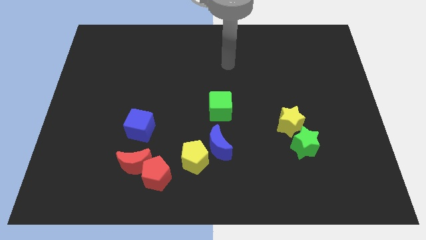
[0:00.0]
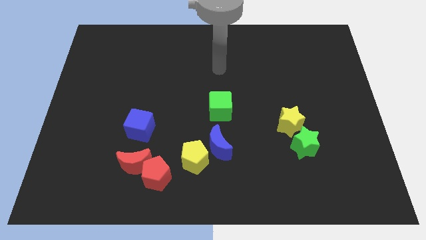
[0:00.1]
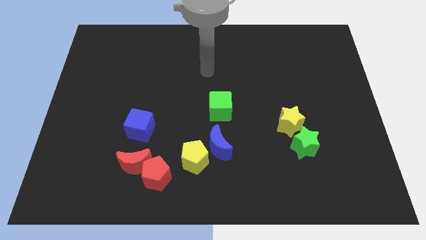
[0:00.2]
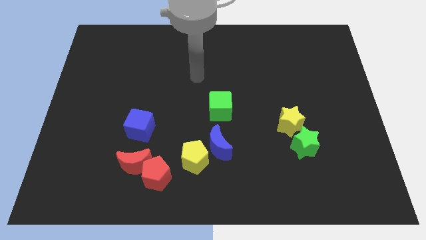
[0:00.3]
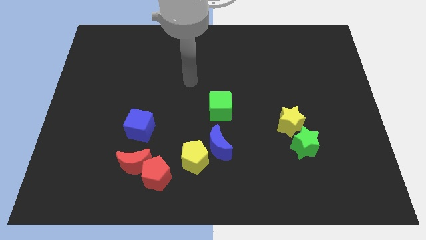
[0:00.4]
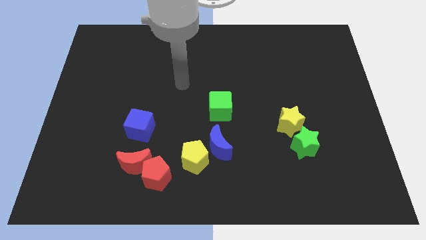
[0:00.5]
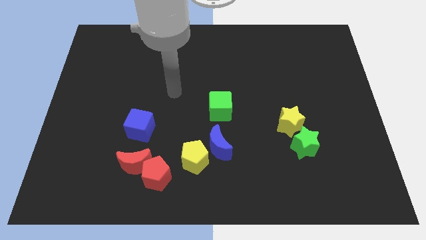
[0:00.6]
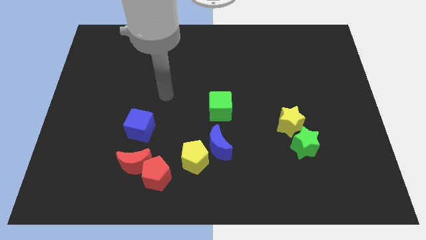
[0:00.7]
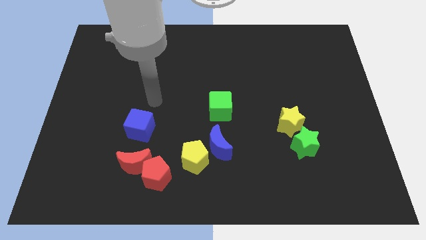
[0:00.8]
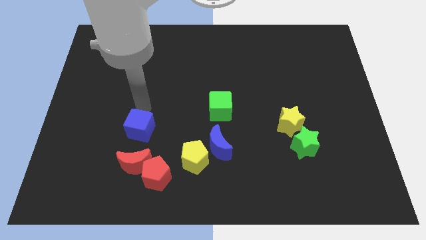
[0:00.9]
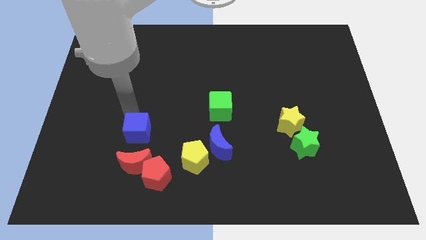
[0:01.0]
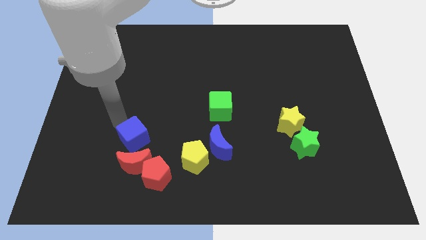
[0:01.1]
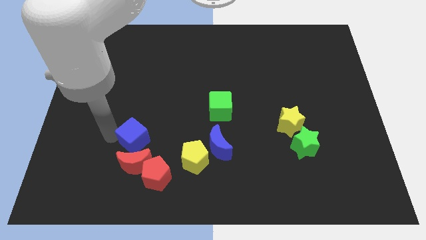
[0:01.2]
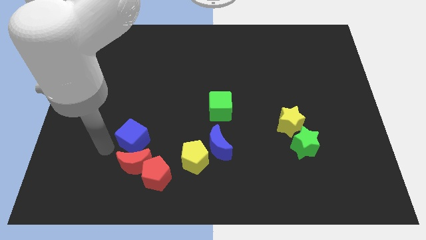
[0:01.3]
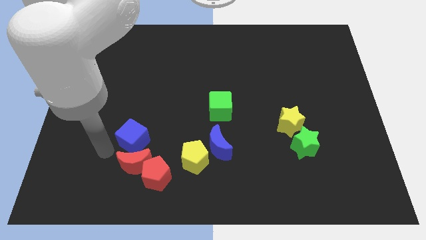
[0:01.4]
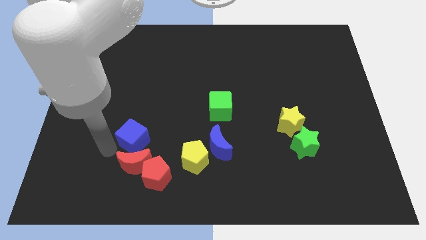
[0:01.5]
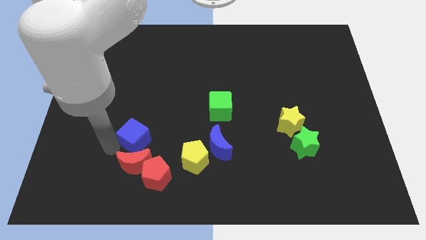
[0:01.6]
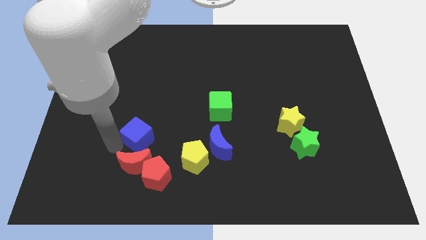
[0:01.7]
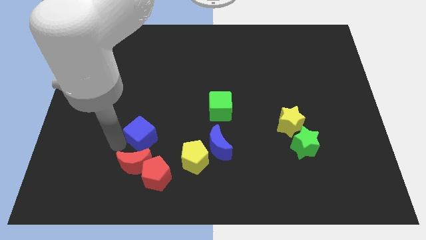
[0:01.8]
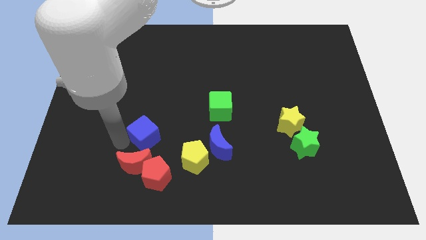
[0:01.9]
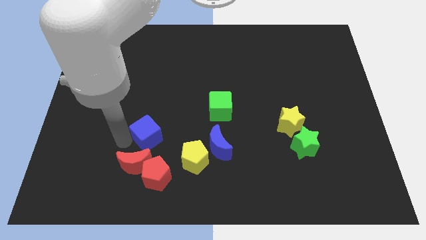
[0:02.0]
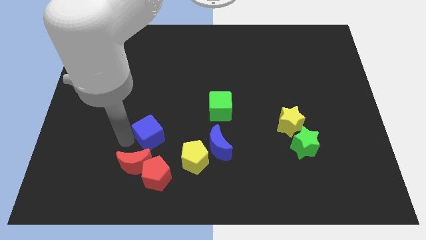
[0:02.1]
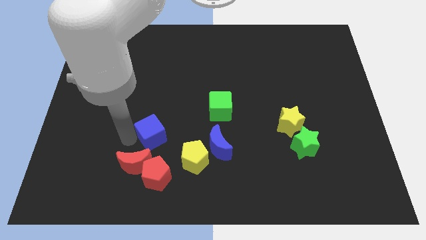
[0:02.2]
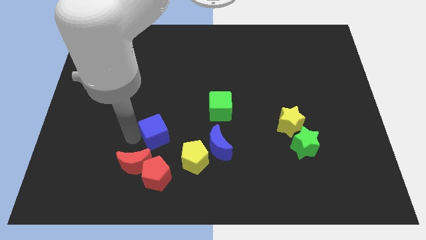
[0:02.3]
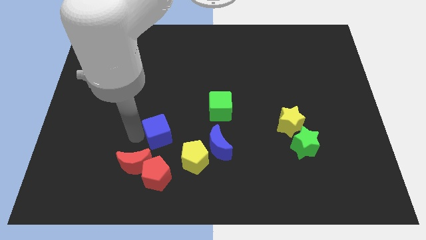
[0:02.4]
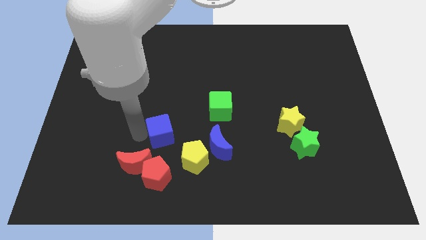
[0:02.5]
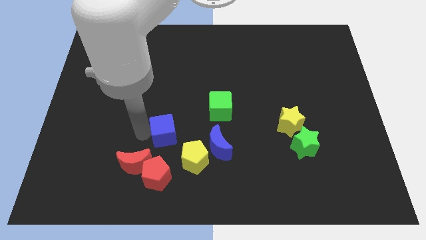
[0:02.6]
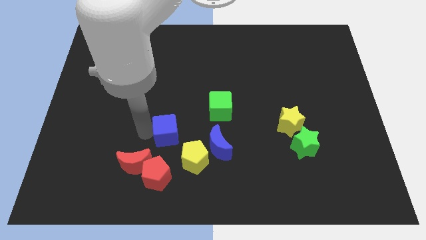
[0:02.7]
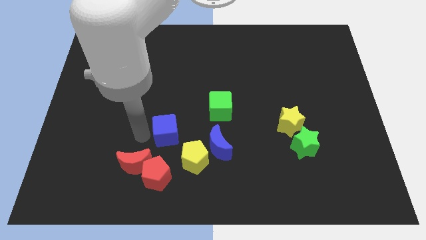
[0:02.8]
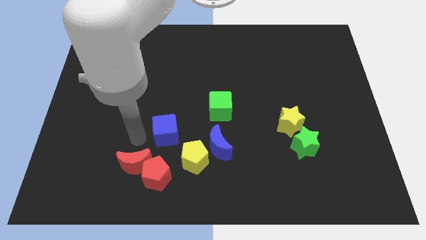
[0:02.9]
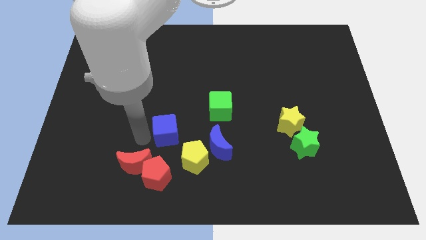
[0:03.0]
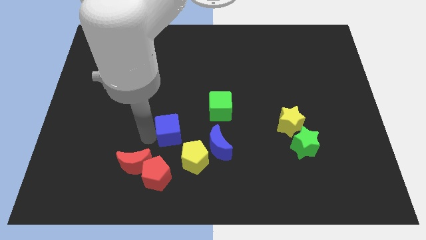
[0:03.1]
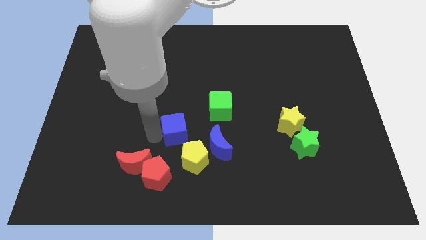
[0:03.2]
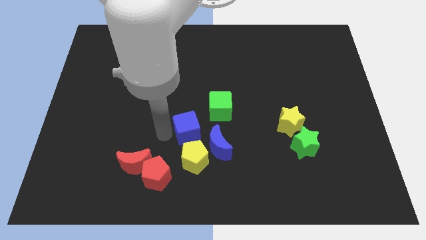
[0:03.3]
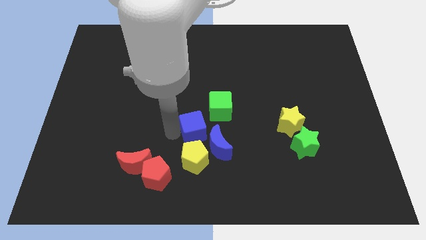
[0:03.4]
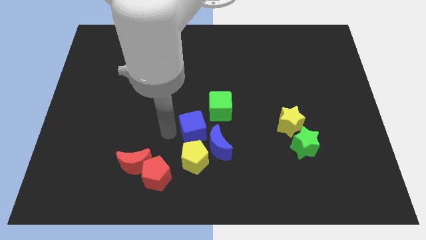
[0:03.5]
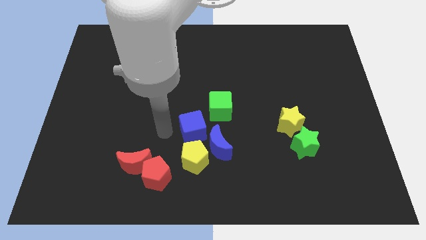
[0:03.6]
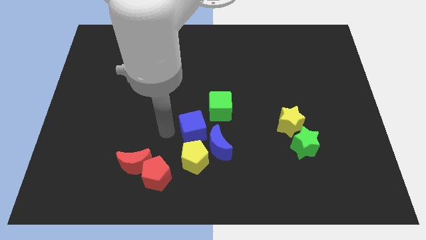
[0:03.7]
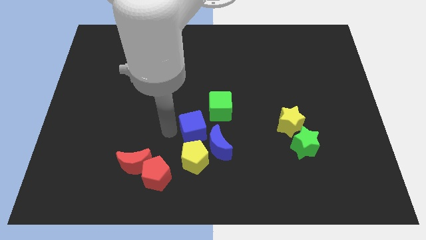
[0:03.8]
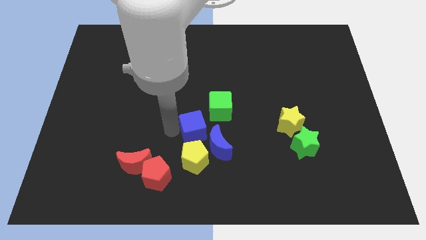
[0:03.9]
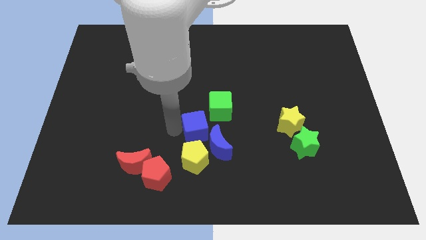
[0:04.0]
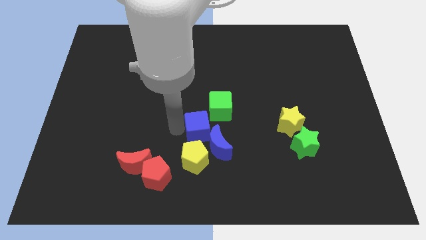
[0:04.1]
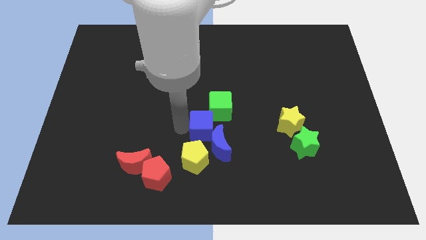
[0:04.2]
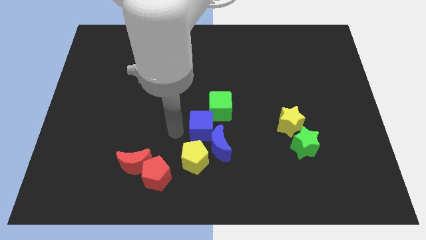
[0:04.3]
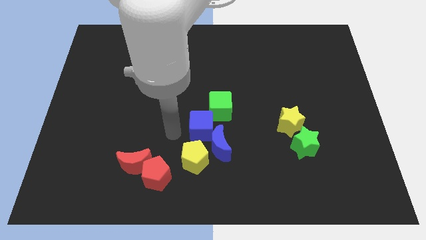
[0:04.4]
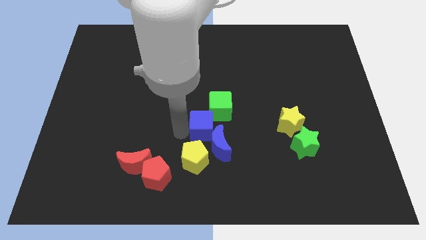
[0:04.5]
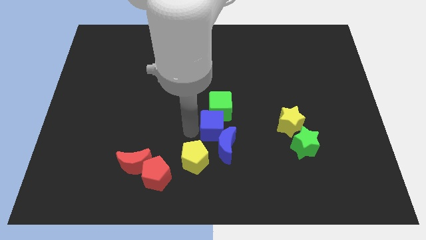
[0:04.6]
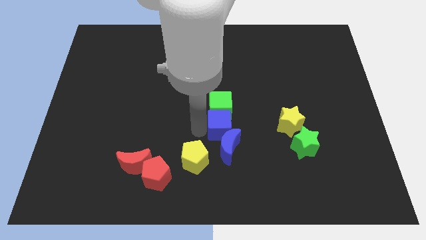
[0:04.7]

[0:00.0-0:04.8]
slide the blue cube left of the yellow star

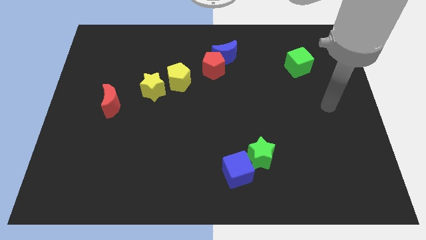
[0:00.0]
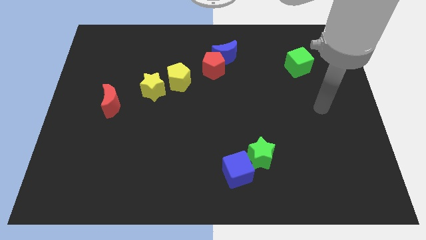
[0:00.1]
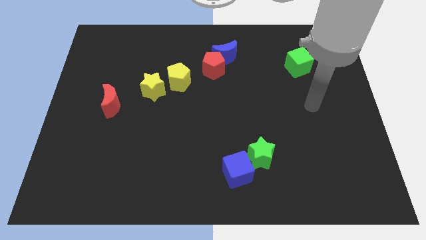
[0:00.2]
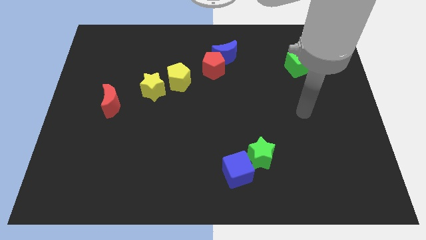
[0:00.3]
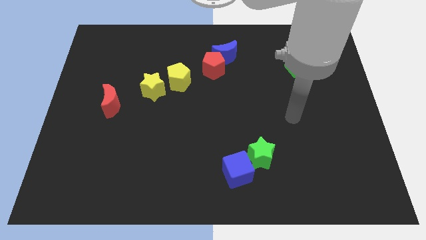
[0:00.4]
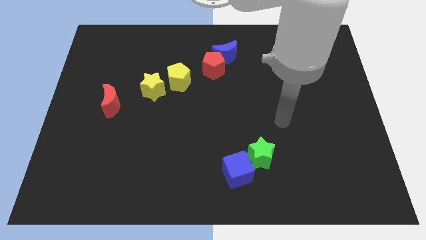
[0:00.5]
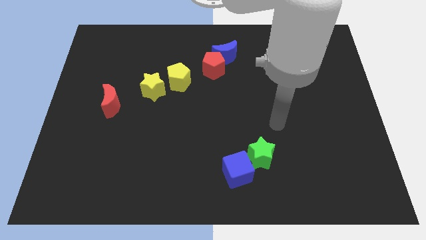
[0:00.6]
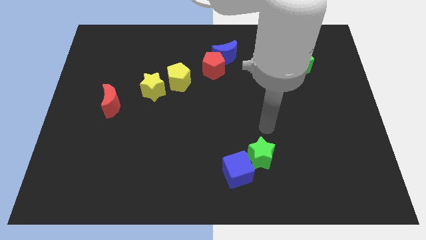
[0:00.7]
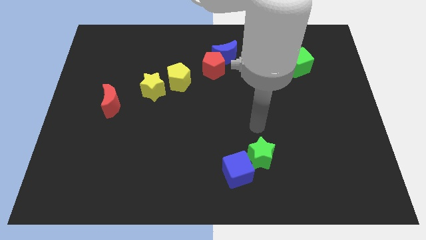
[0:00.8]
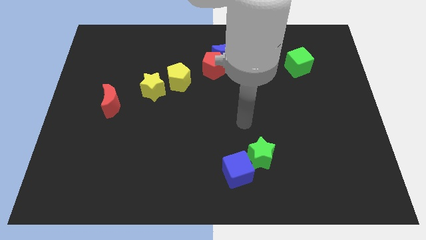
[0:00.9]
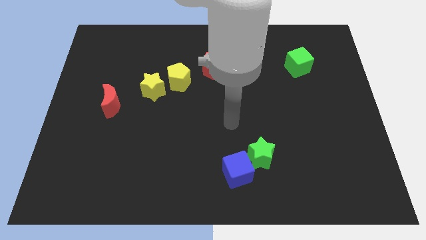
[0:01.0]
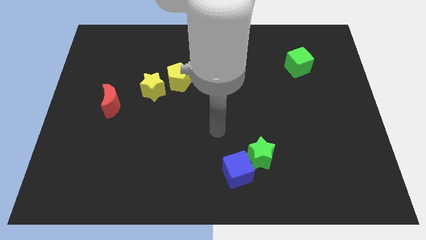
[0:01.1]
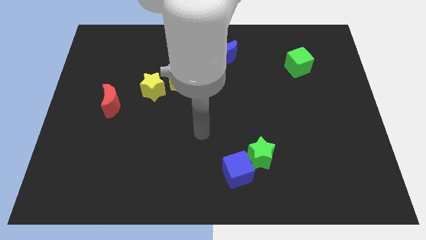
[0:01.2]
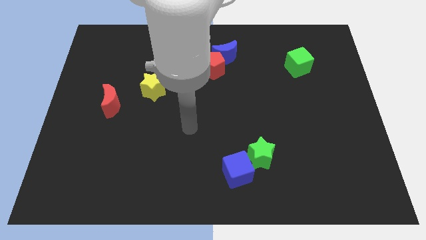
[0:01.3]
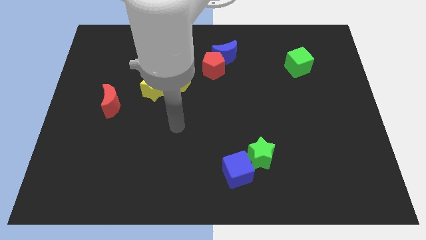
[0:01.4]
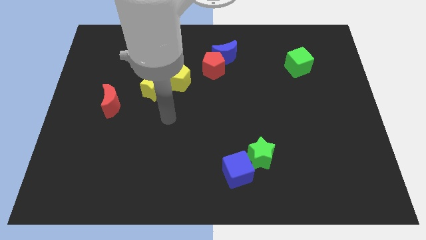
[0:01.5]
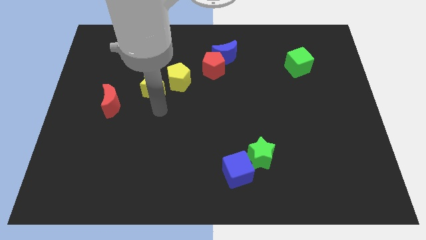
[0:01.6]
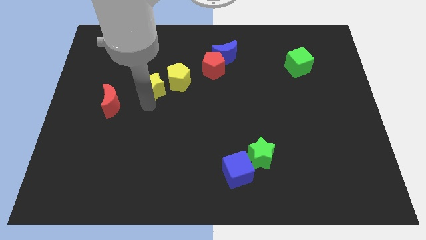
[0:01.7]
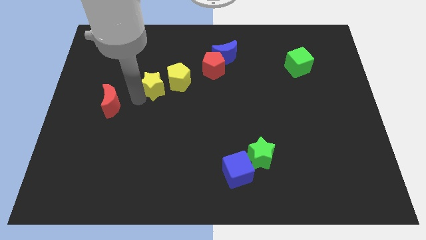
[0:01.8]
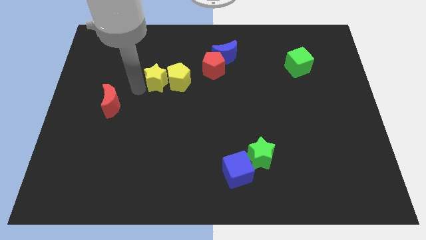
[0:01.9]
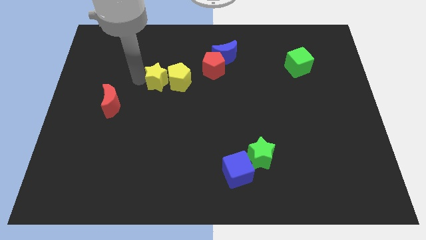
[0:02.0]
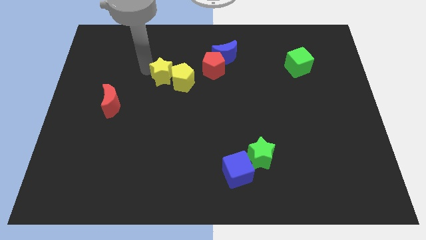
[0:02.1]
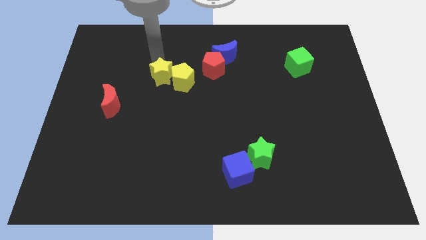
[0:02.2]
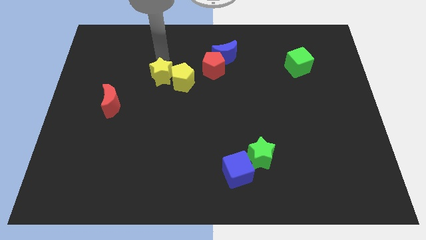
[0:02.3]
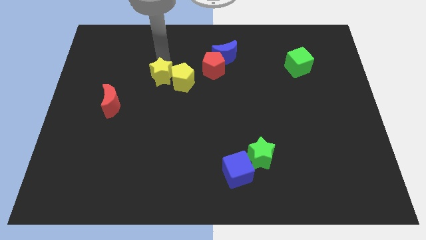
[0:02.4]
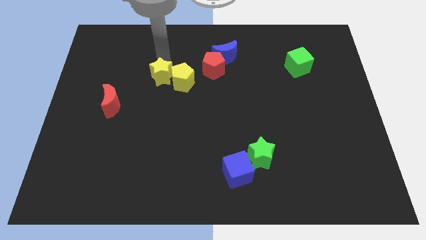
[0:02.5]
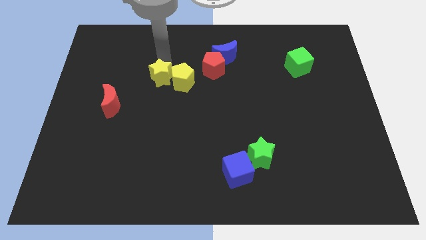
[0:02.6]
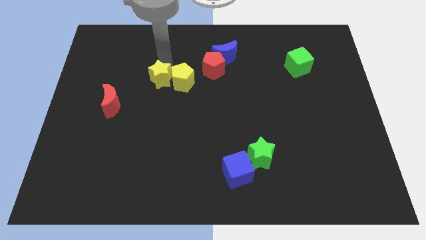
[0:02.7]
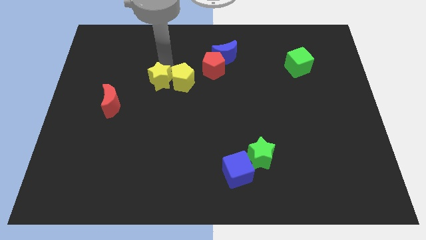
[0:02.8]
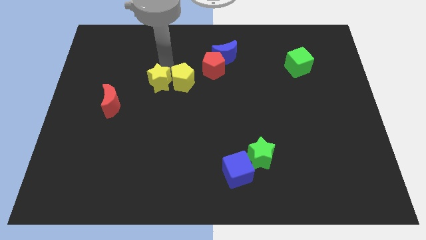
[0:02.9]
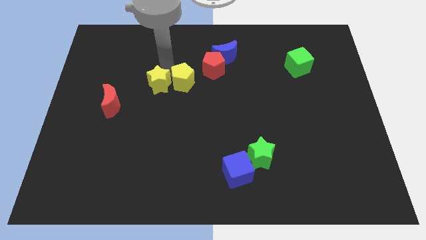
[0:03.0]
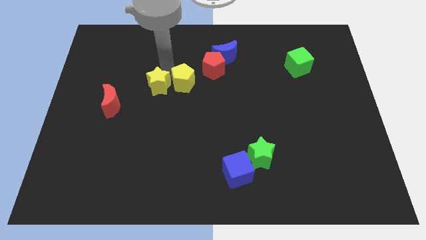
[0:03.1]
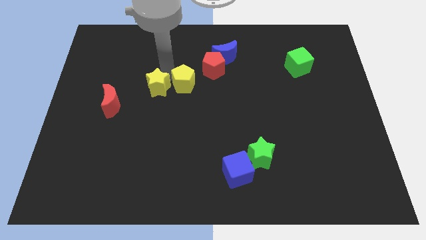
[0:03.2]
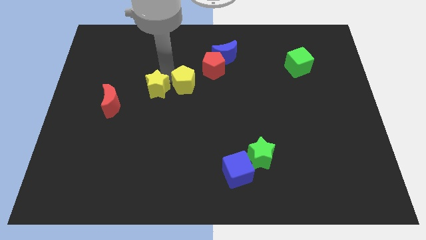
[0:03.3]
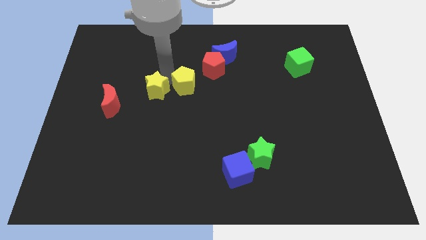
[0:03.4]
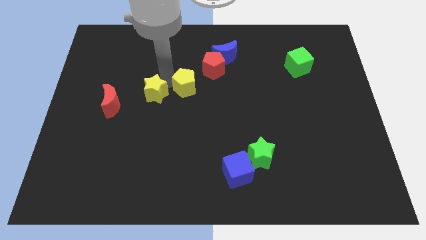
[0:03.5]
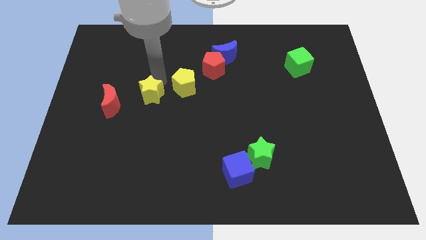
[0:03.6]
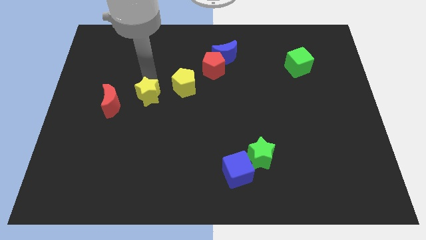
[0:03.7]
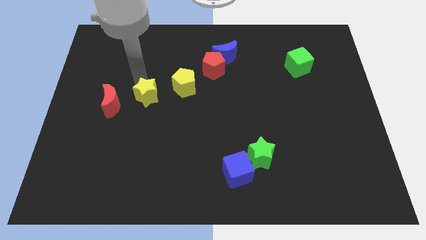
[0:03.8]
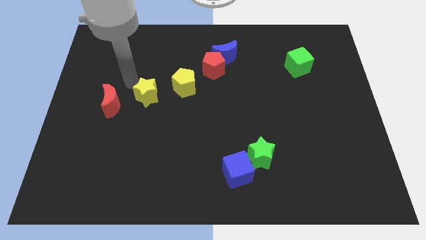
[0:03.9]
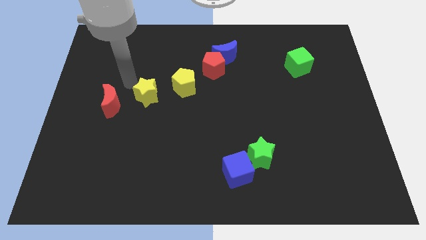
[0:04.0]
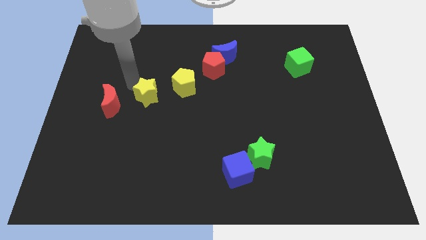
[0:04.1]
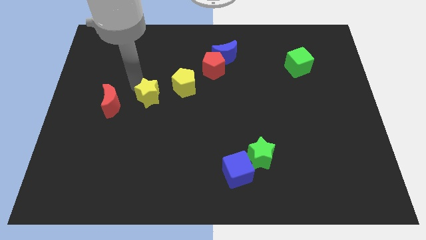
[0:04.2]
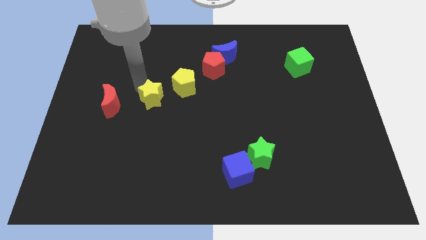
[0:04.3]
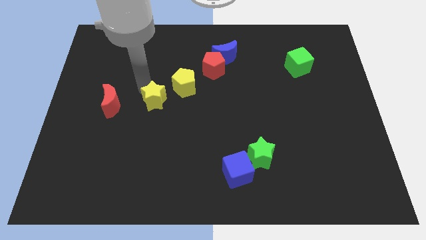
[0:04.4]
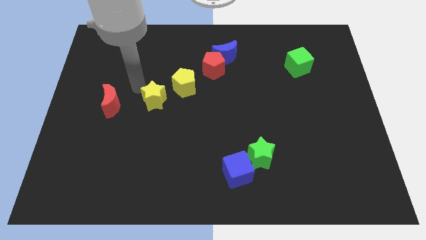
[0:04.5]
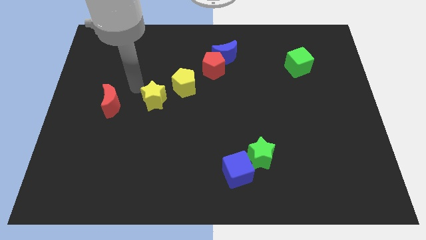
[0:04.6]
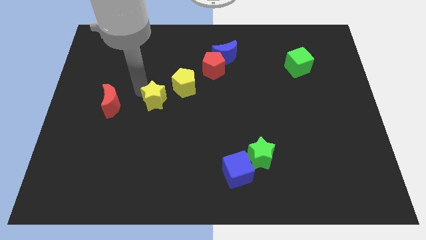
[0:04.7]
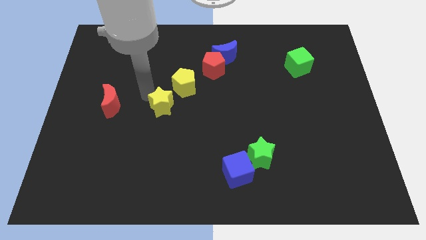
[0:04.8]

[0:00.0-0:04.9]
put the yellow star to the bottom side of the yellow pentagon
